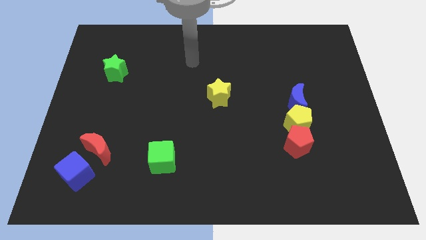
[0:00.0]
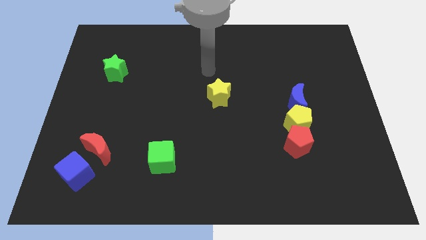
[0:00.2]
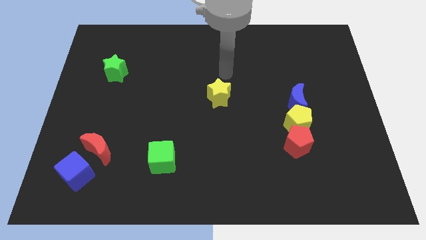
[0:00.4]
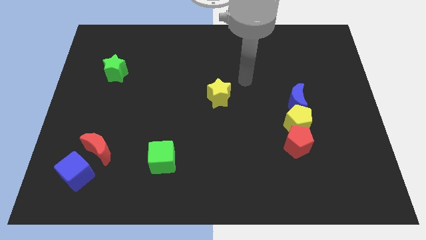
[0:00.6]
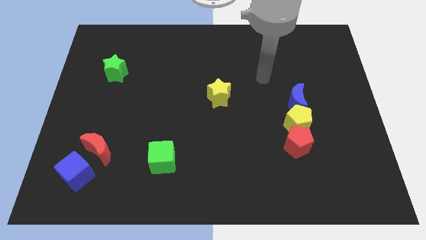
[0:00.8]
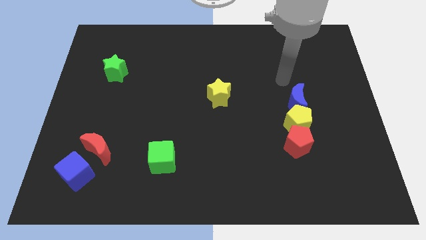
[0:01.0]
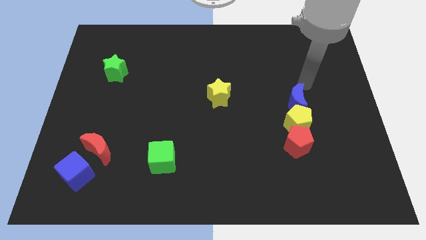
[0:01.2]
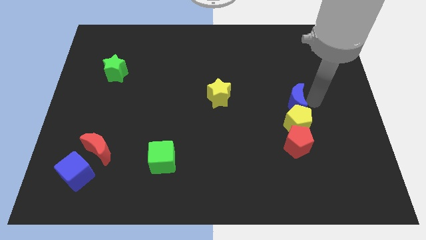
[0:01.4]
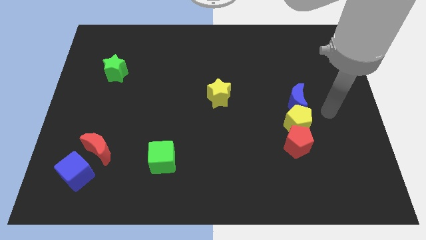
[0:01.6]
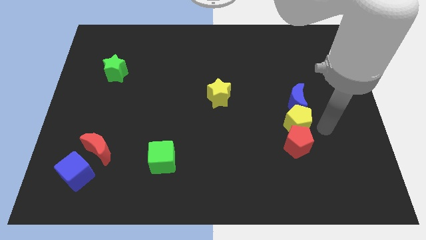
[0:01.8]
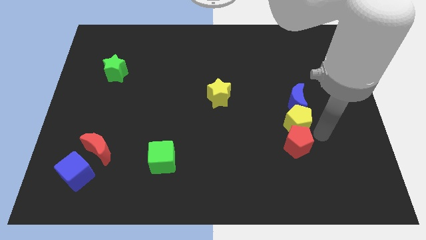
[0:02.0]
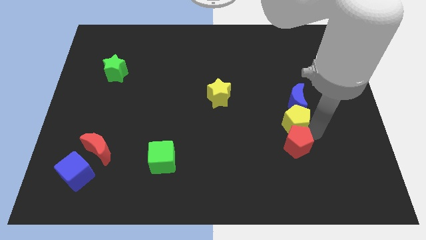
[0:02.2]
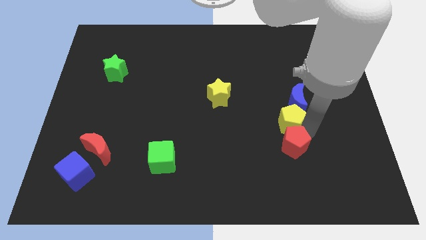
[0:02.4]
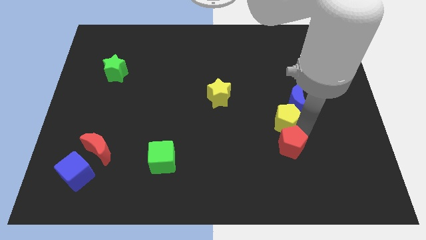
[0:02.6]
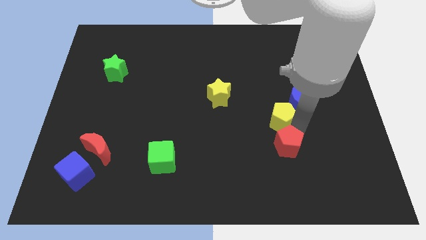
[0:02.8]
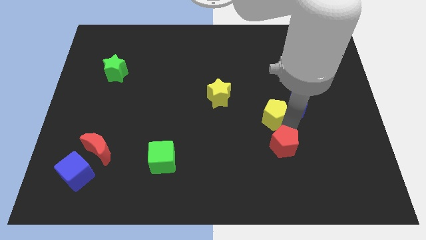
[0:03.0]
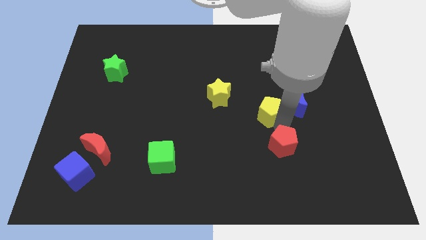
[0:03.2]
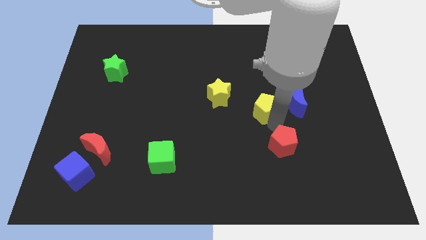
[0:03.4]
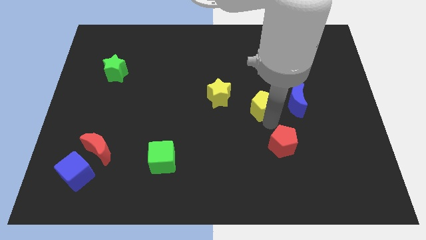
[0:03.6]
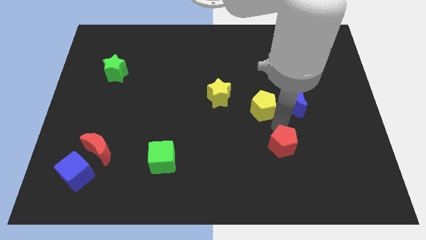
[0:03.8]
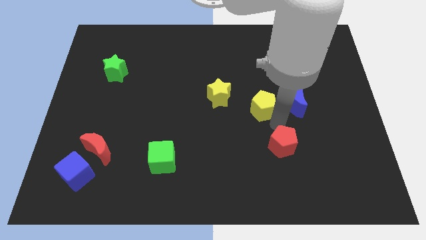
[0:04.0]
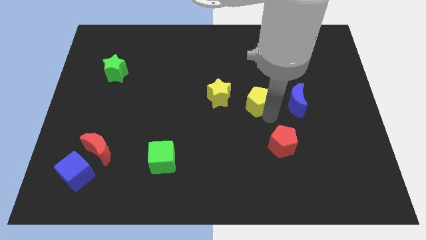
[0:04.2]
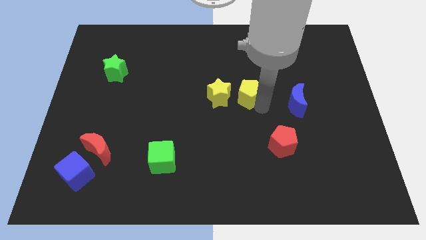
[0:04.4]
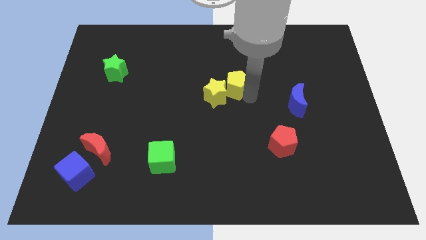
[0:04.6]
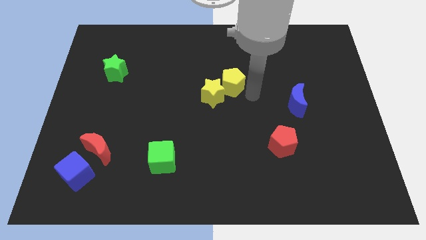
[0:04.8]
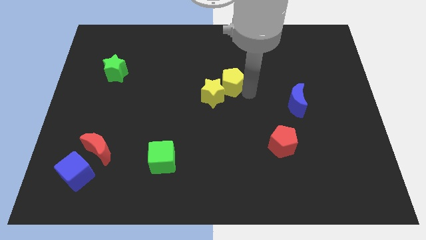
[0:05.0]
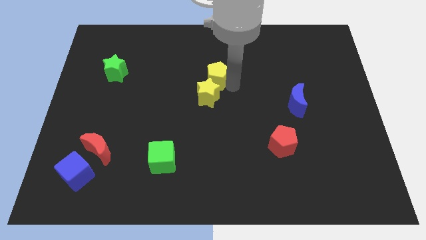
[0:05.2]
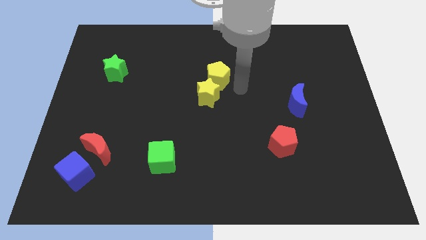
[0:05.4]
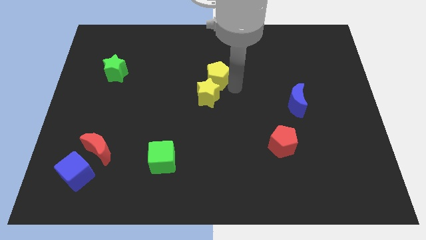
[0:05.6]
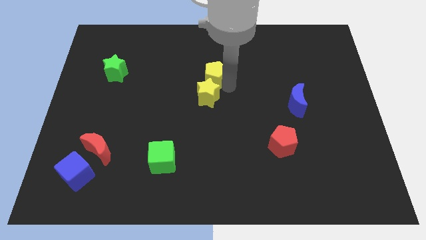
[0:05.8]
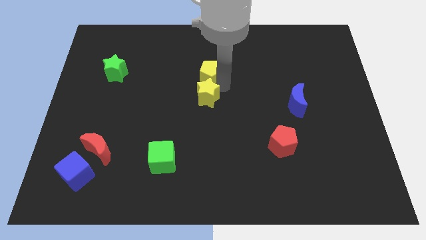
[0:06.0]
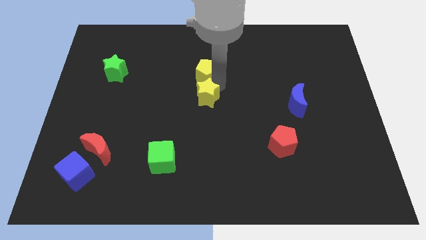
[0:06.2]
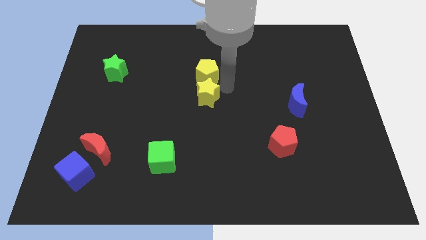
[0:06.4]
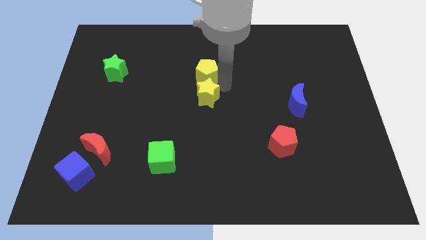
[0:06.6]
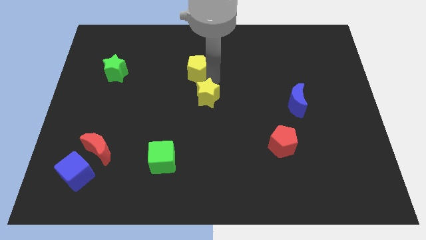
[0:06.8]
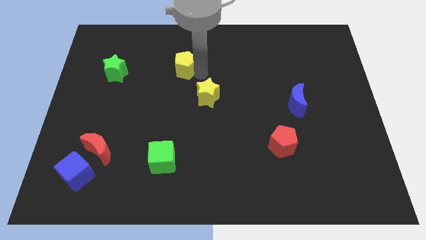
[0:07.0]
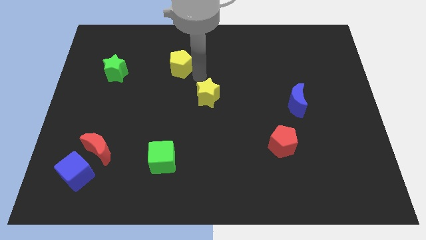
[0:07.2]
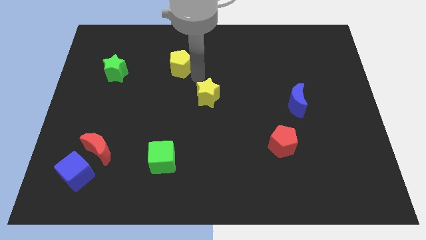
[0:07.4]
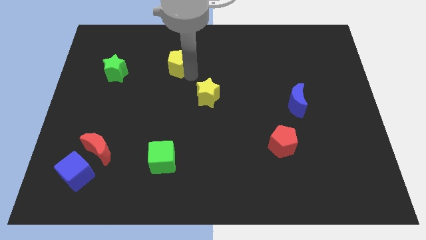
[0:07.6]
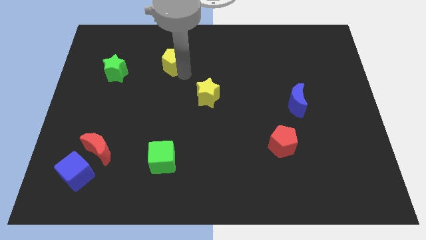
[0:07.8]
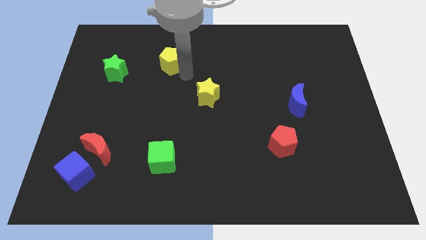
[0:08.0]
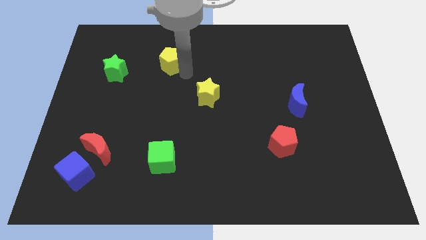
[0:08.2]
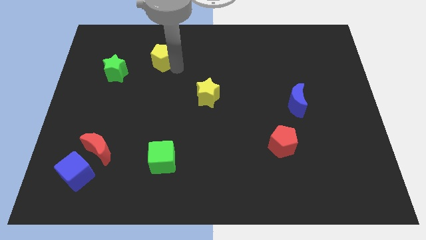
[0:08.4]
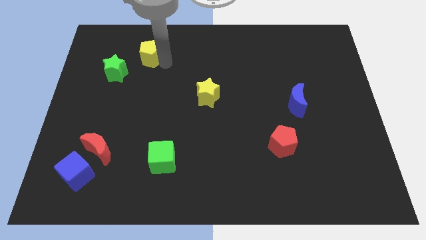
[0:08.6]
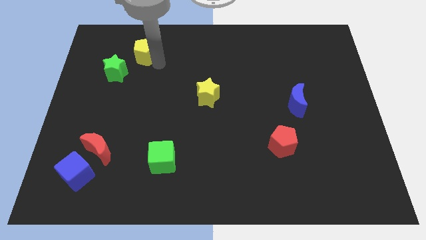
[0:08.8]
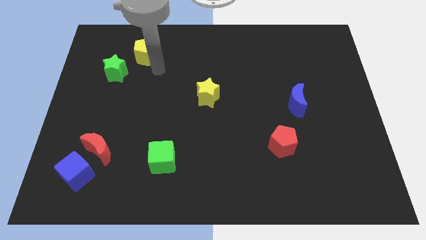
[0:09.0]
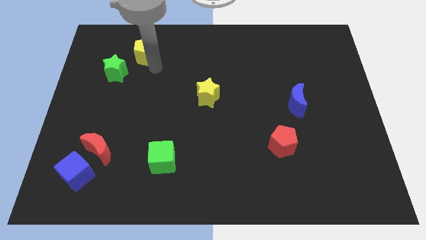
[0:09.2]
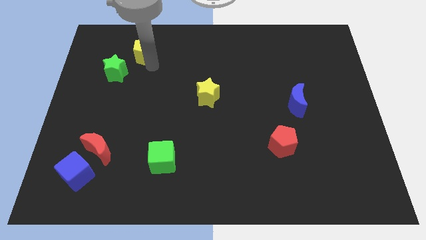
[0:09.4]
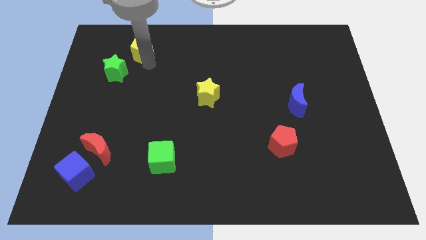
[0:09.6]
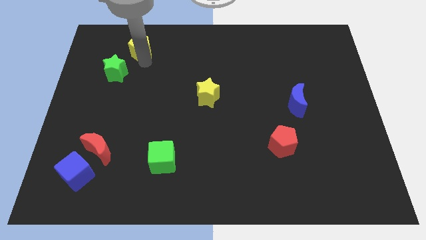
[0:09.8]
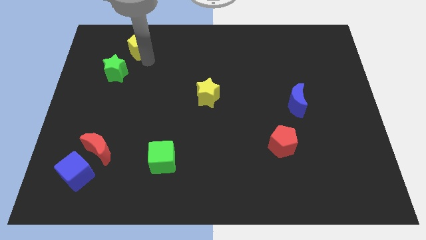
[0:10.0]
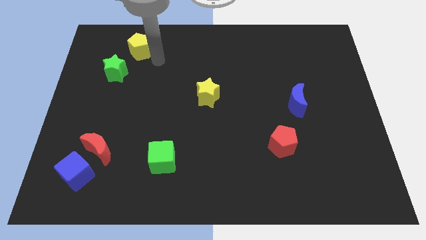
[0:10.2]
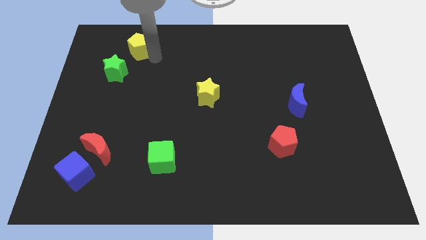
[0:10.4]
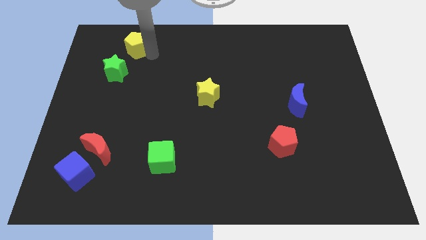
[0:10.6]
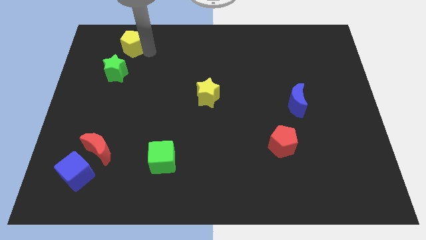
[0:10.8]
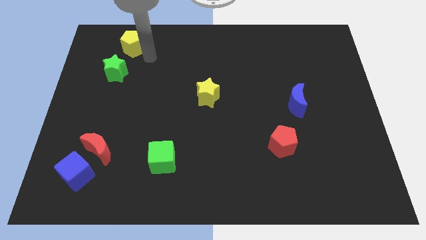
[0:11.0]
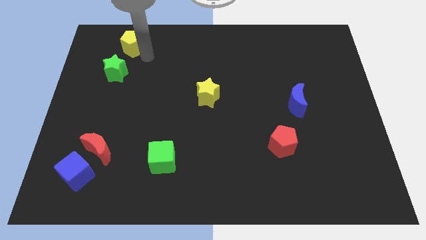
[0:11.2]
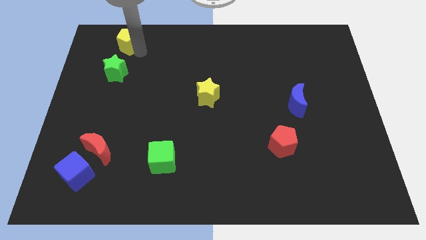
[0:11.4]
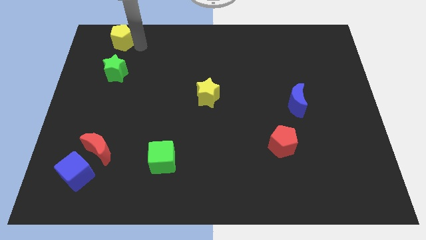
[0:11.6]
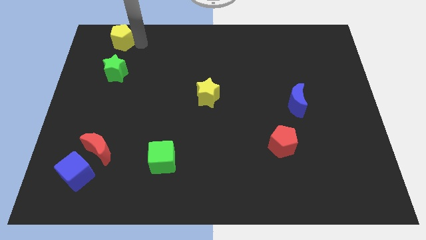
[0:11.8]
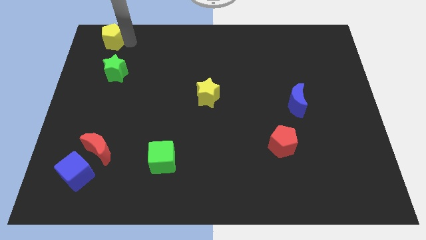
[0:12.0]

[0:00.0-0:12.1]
move the yellow pentagon to the top left corner

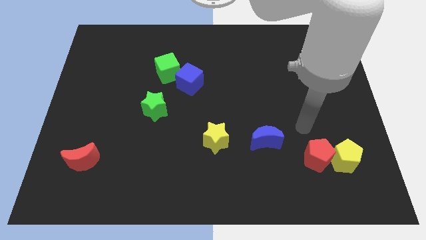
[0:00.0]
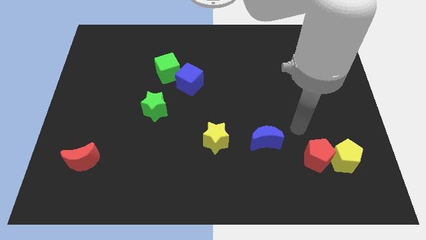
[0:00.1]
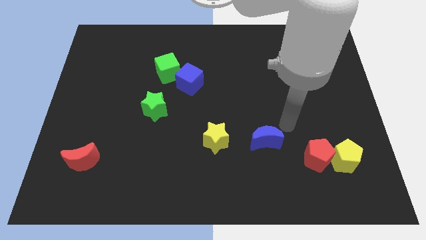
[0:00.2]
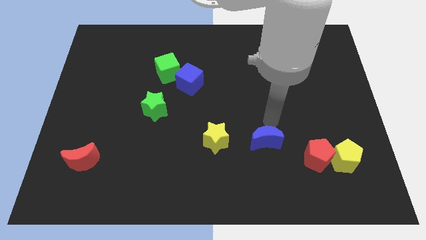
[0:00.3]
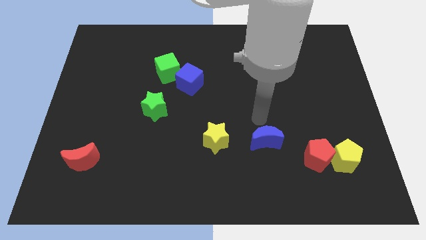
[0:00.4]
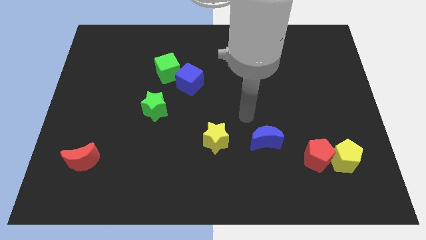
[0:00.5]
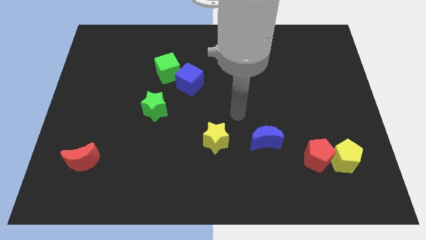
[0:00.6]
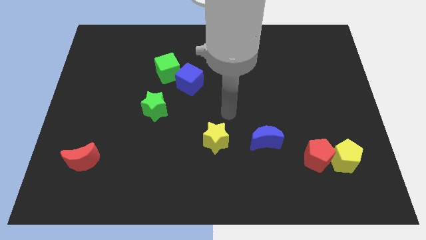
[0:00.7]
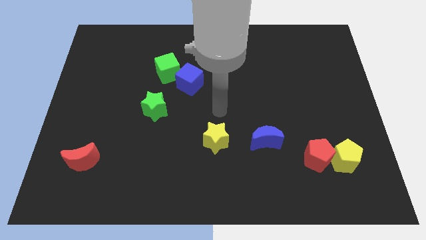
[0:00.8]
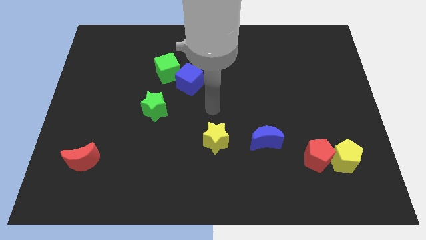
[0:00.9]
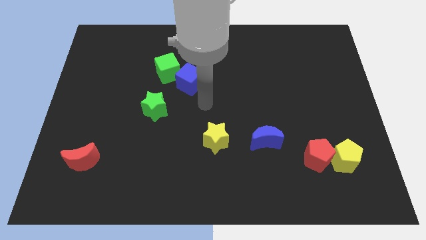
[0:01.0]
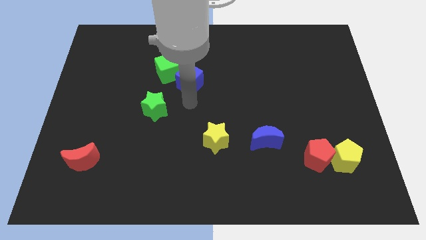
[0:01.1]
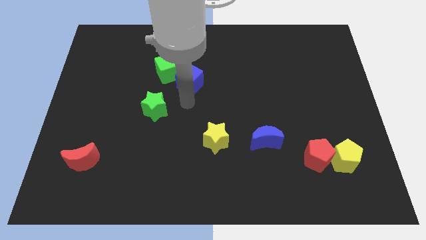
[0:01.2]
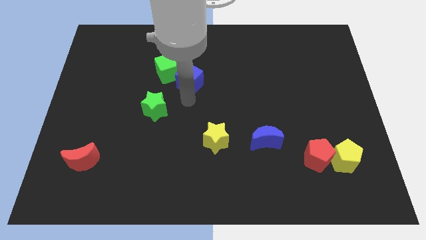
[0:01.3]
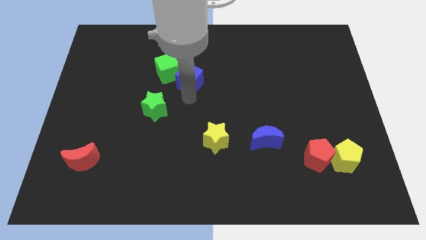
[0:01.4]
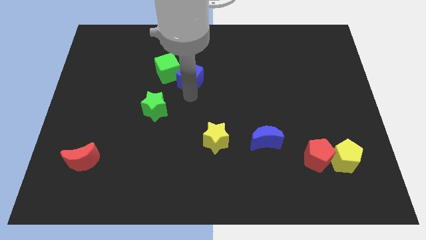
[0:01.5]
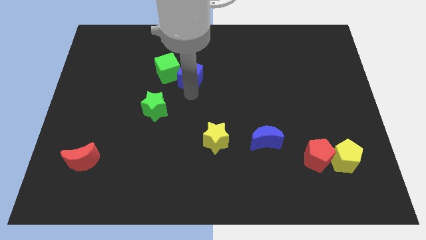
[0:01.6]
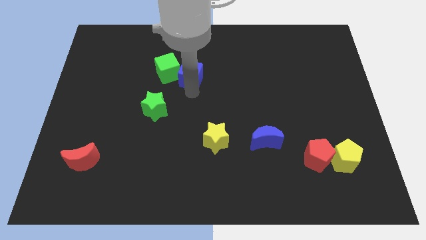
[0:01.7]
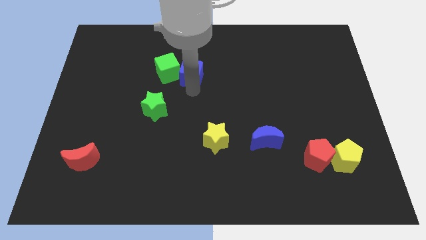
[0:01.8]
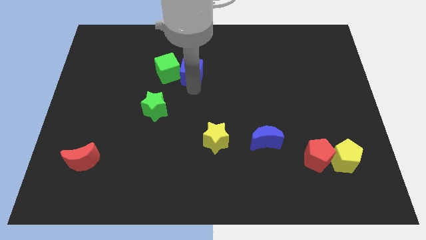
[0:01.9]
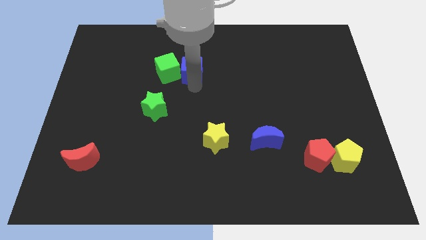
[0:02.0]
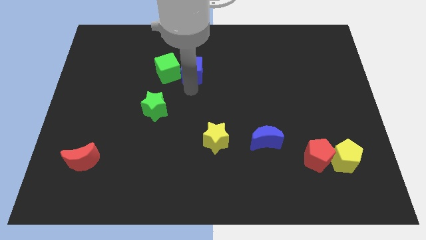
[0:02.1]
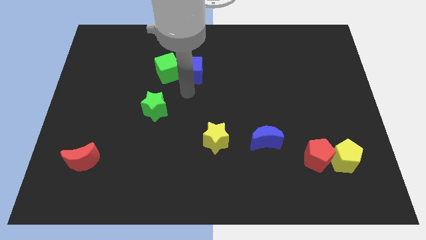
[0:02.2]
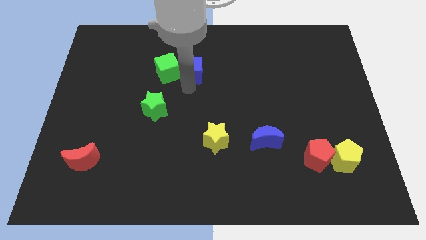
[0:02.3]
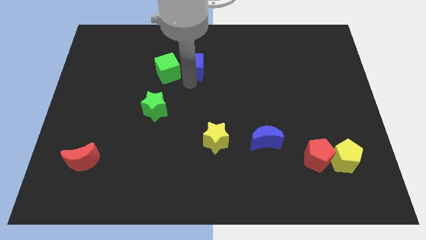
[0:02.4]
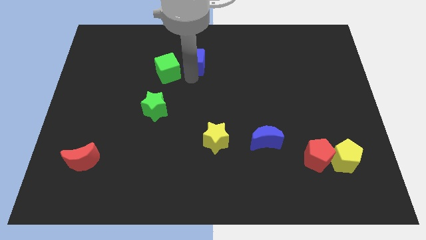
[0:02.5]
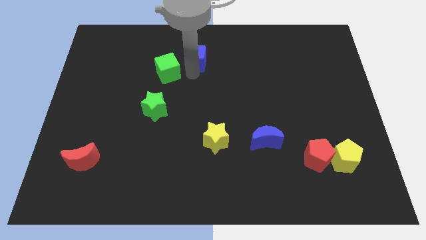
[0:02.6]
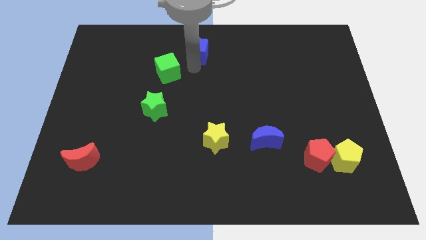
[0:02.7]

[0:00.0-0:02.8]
slide the blue cube to the towards your base
